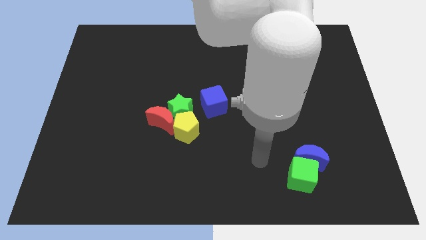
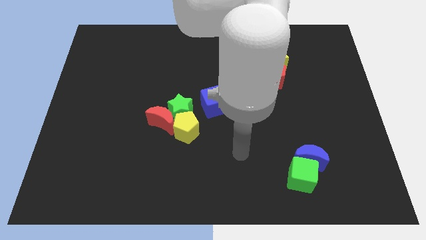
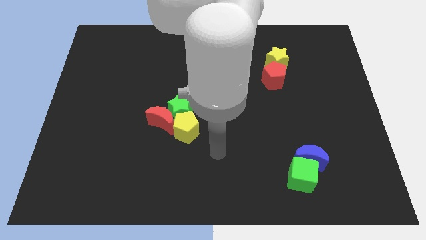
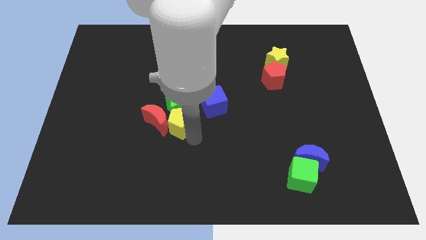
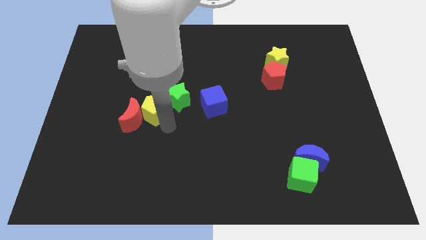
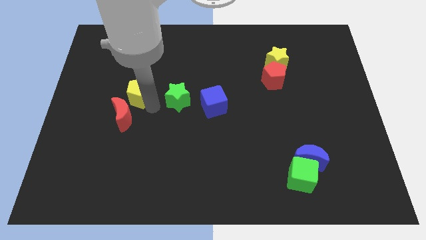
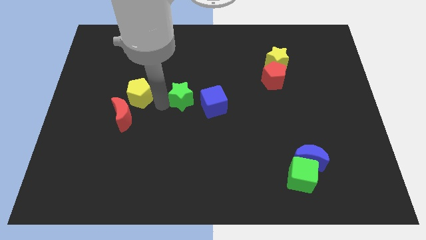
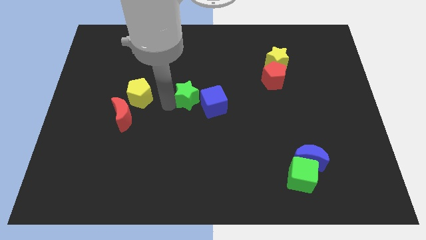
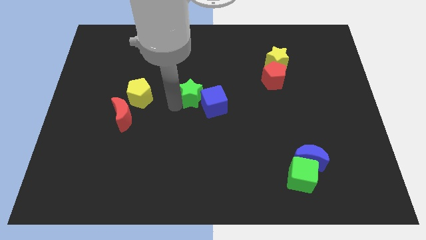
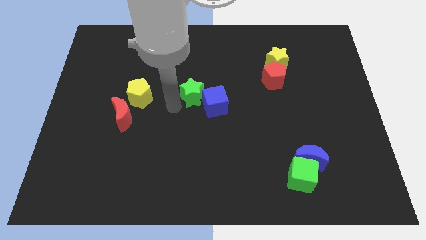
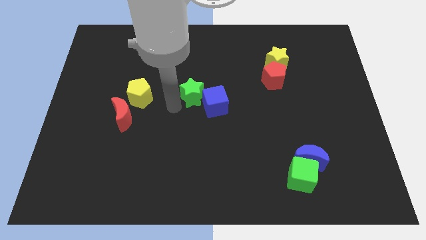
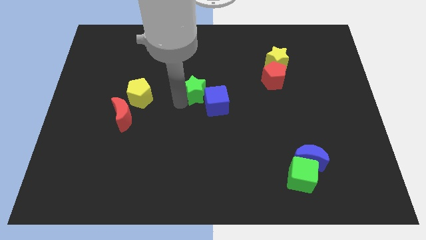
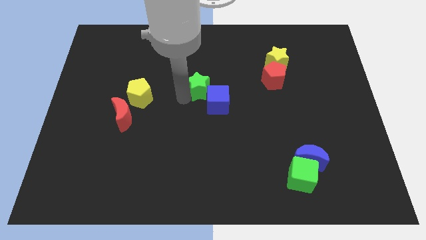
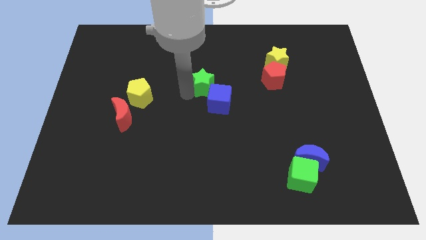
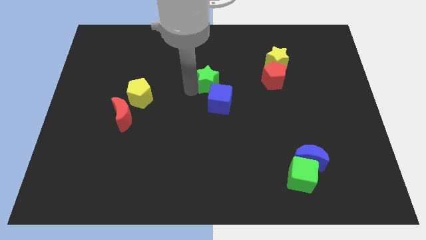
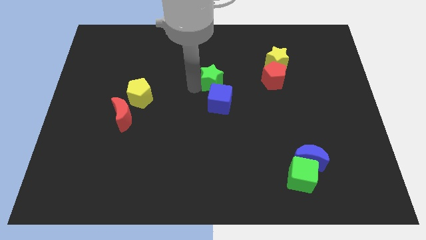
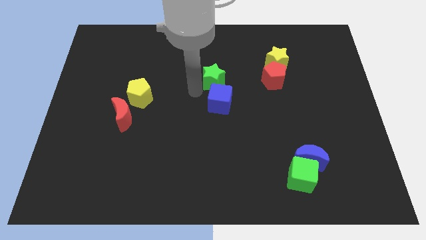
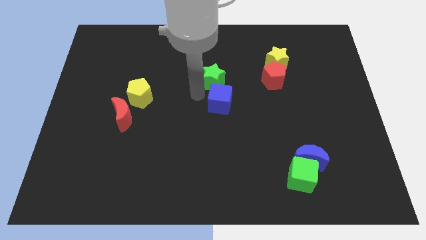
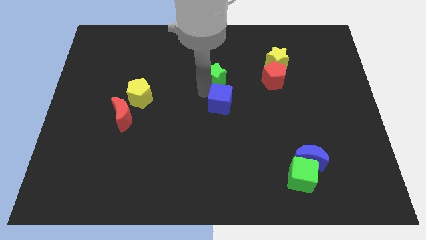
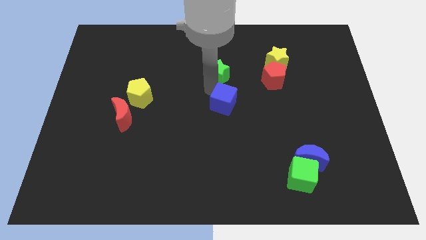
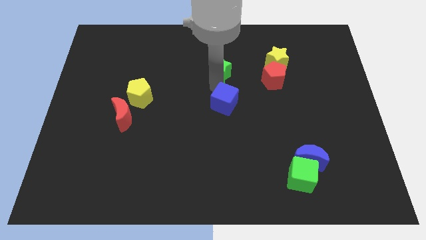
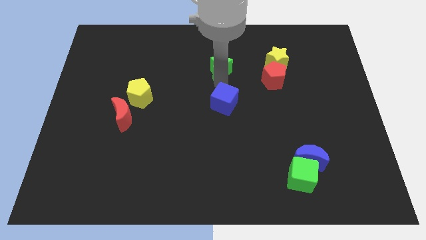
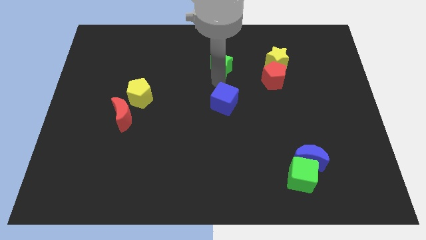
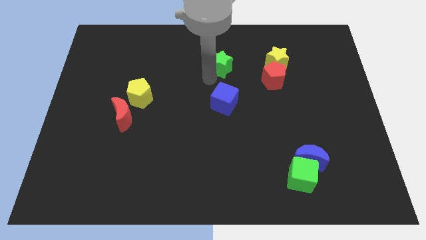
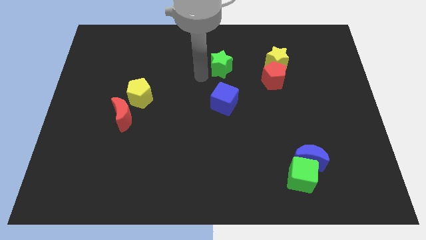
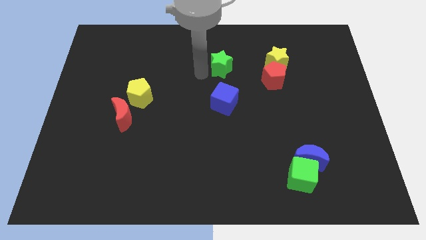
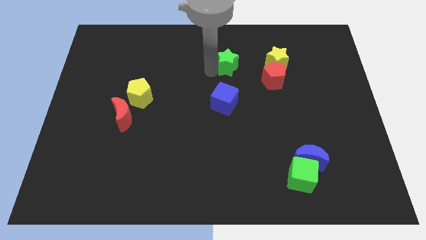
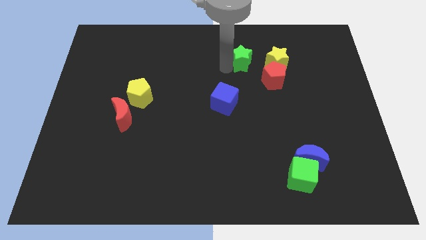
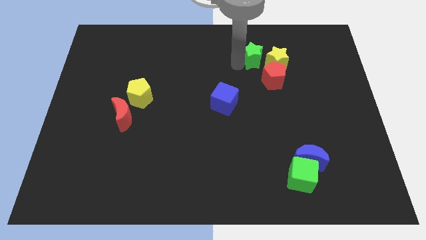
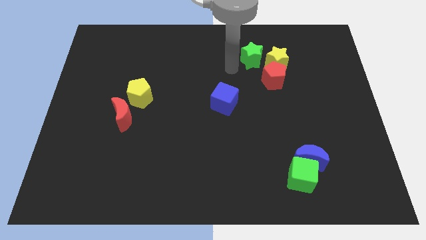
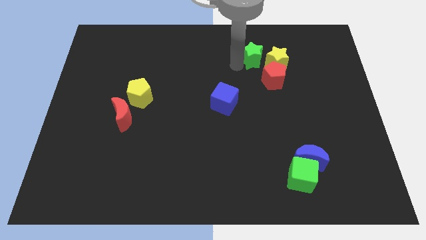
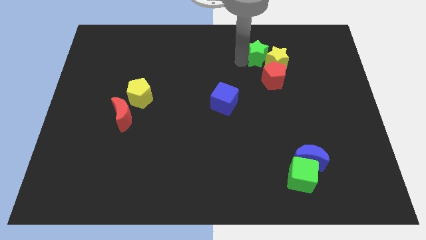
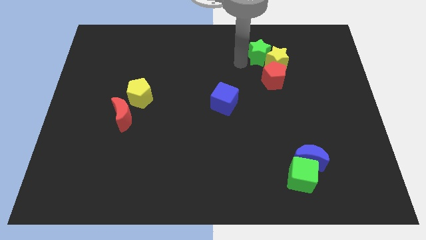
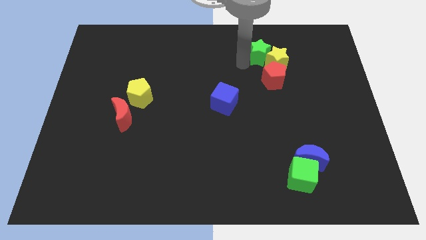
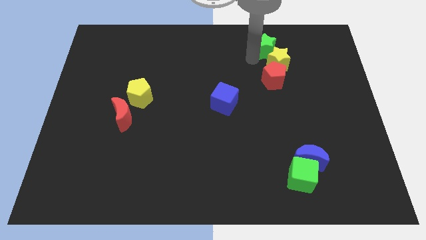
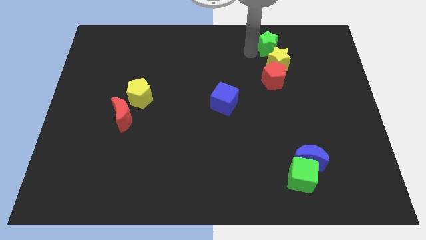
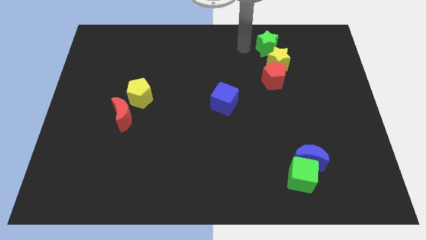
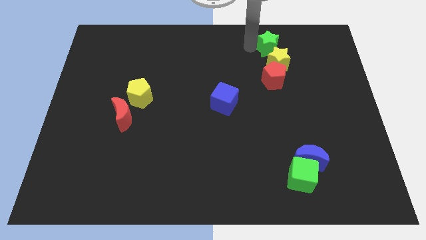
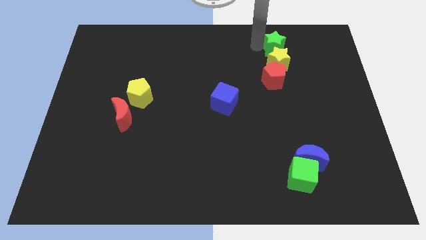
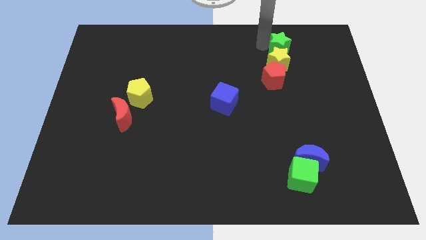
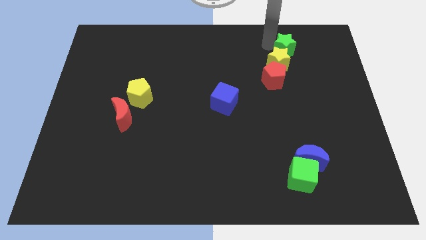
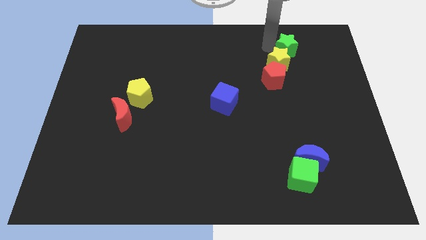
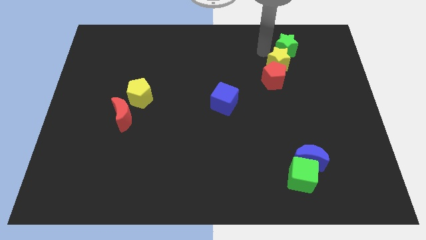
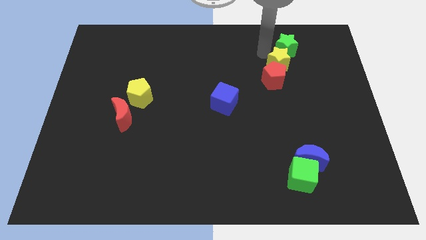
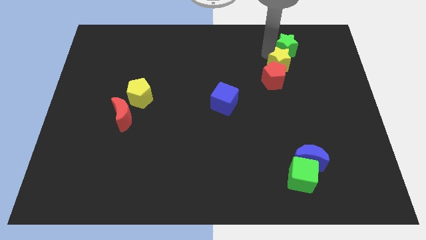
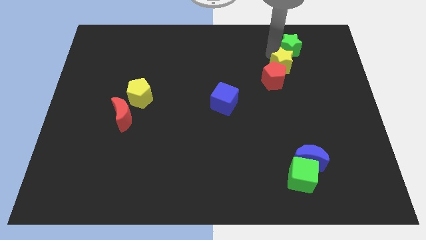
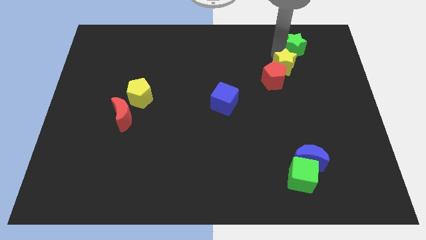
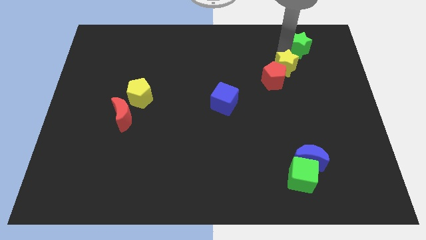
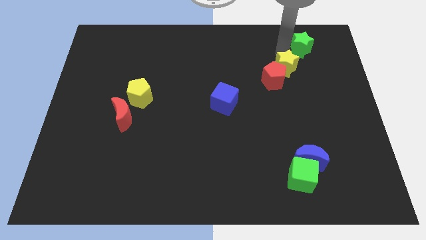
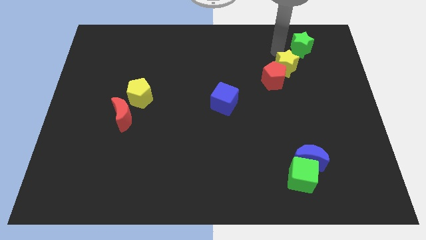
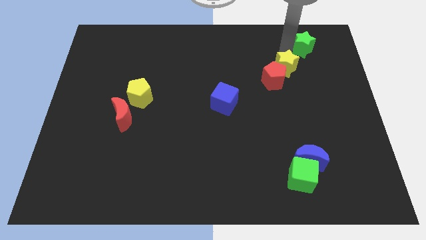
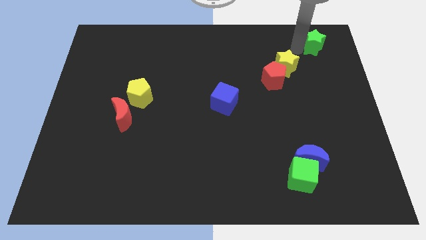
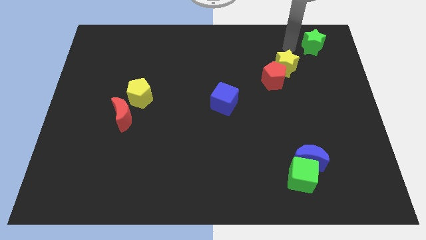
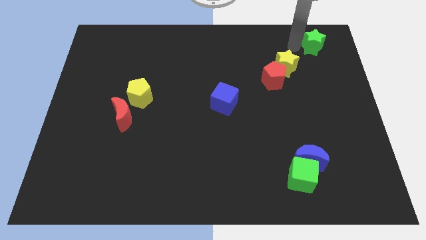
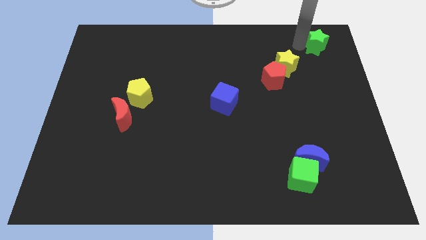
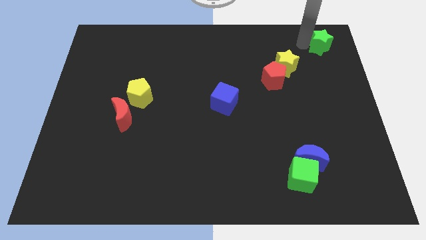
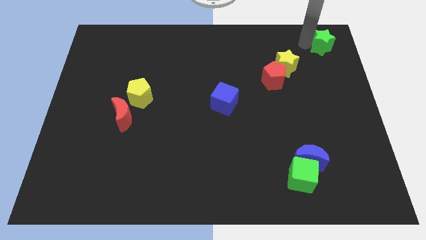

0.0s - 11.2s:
put the green star to the top right of the board

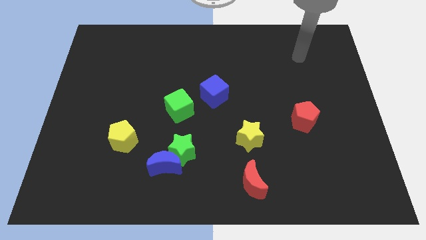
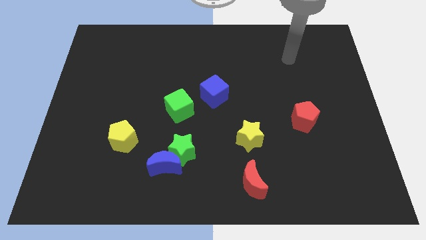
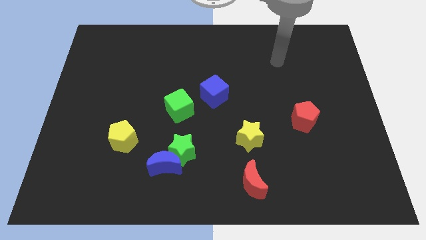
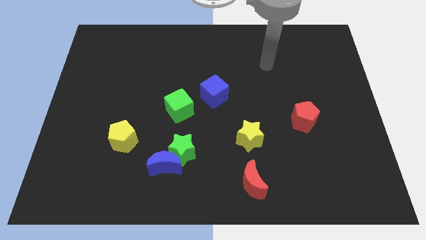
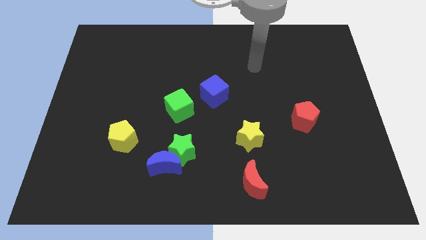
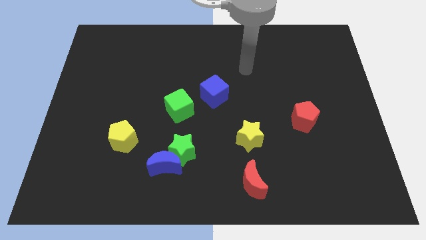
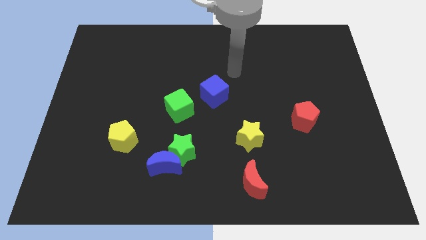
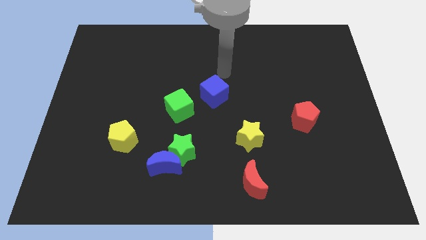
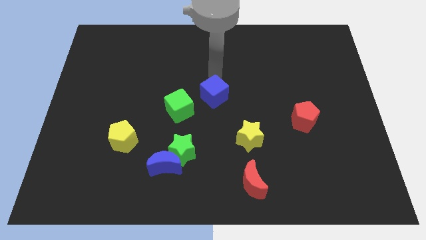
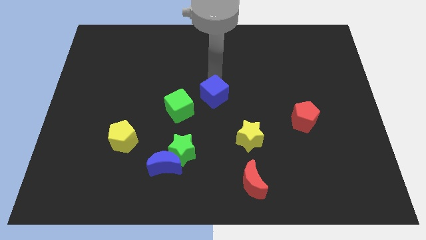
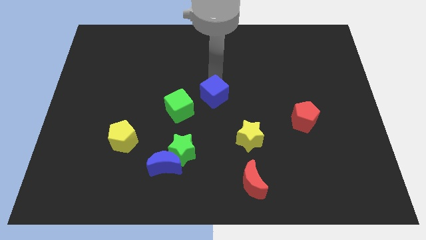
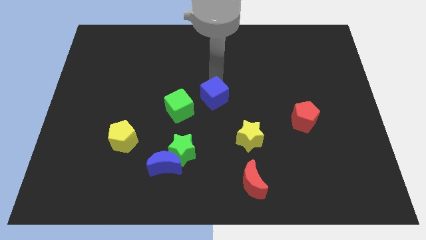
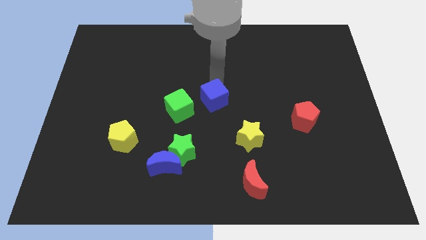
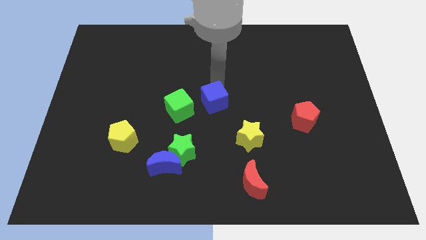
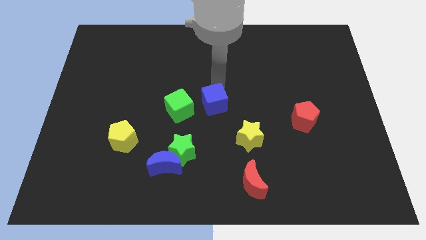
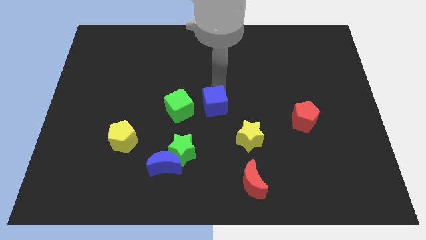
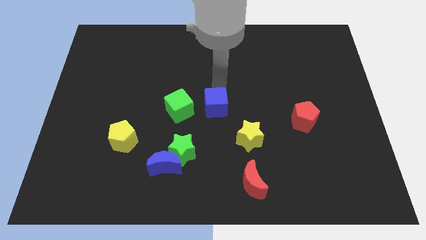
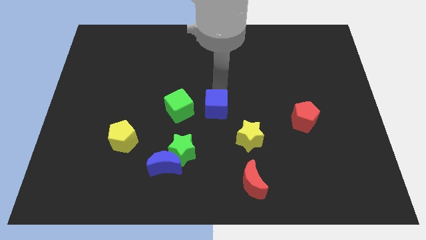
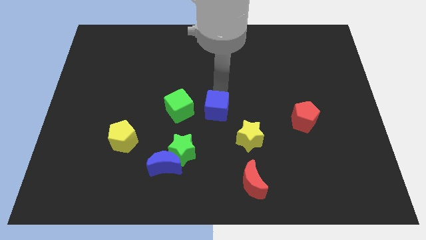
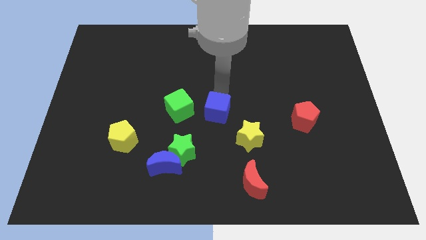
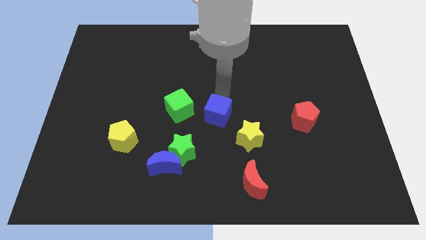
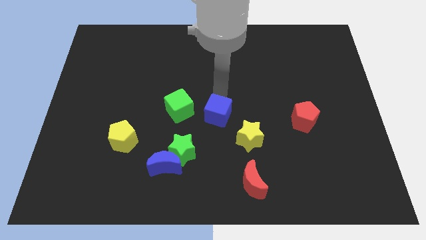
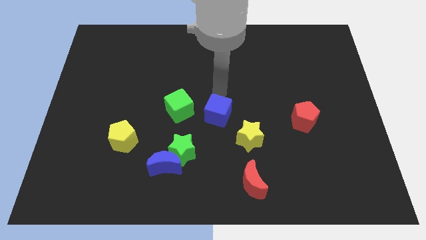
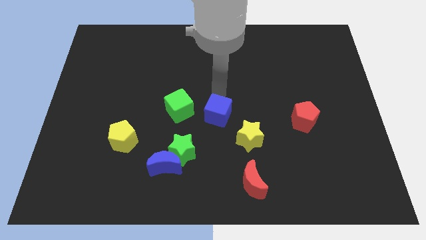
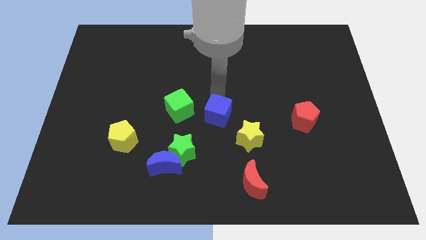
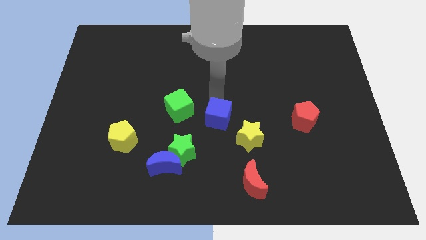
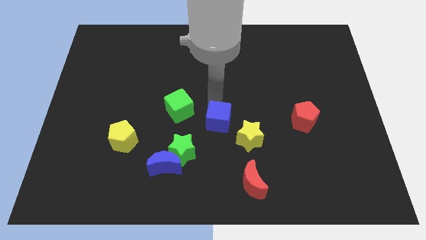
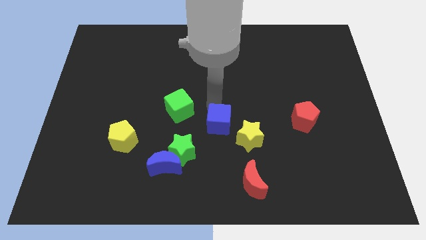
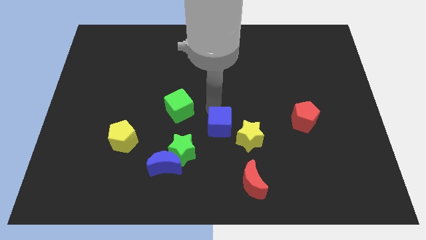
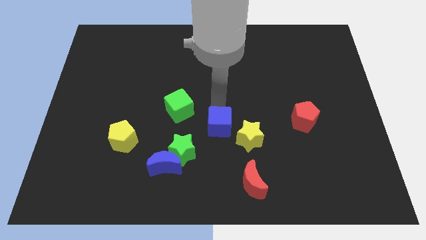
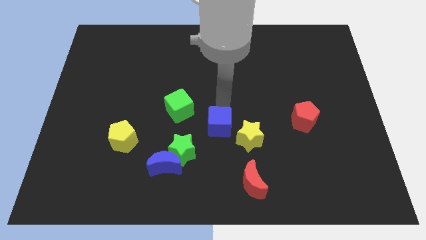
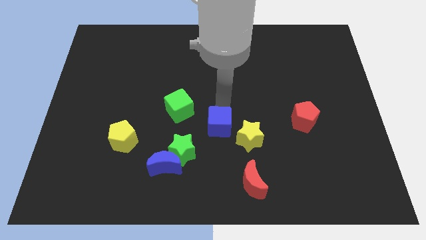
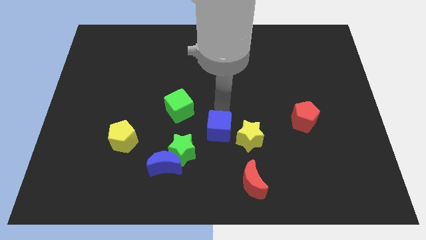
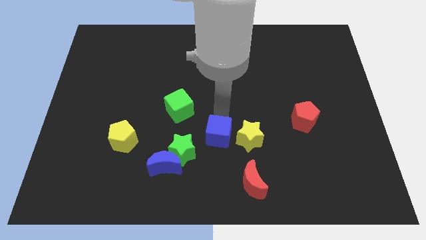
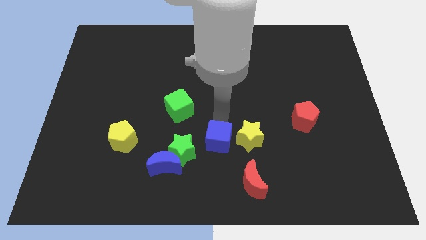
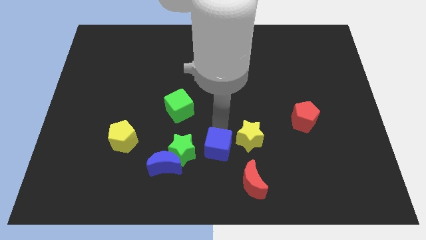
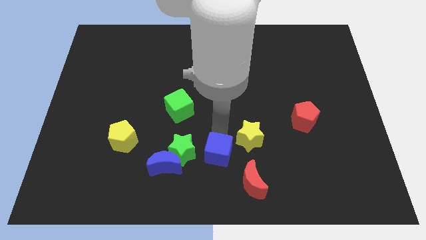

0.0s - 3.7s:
push the blue cube to the bottom side
